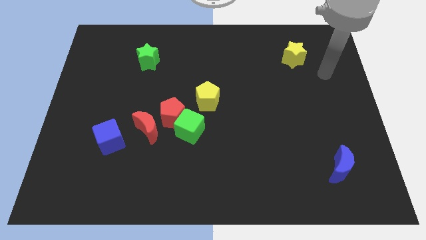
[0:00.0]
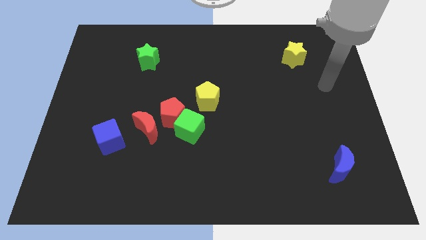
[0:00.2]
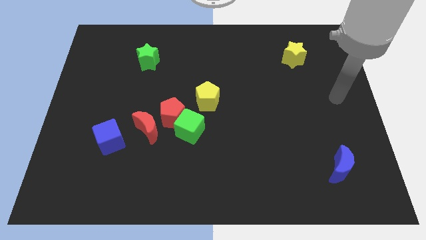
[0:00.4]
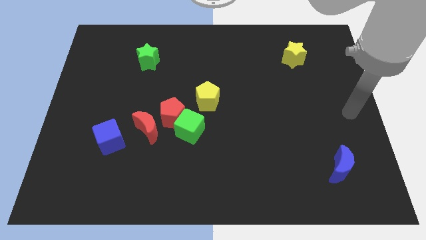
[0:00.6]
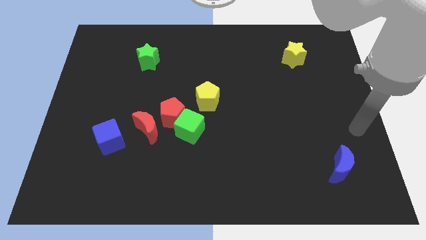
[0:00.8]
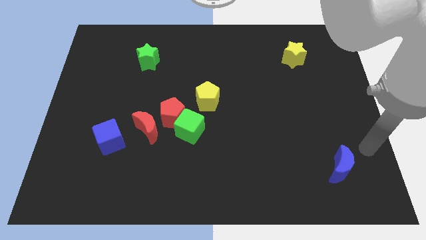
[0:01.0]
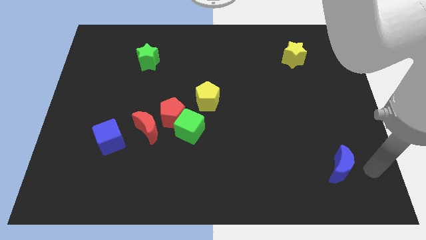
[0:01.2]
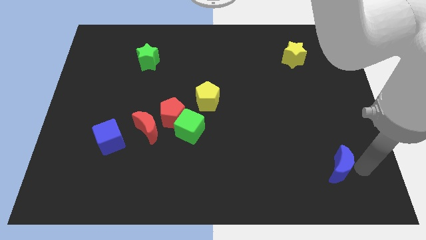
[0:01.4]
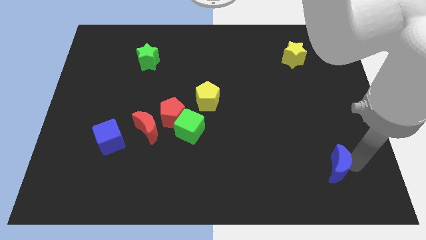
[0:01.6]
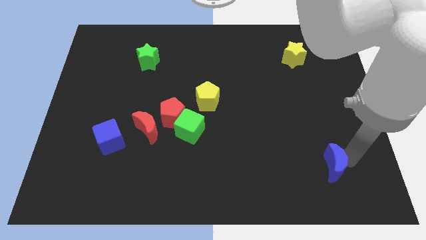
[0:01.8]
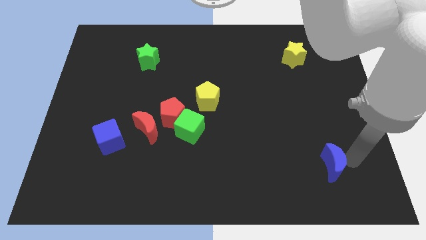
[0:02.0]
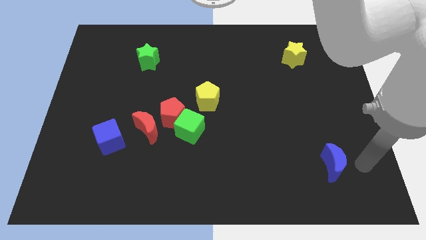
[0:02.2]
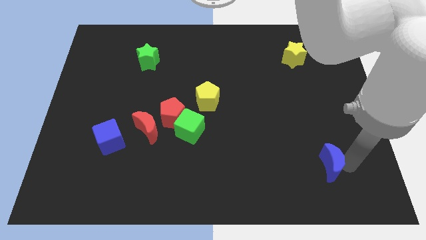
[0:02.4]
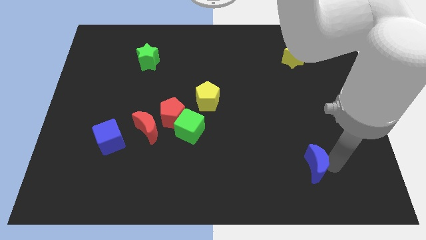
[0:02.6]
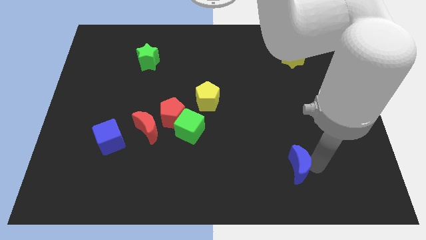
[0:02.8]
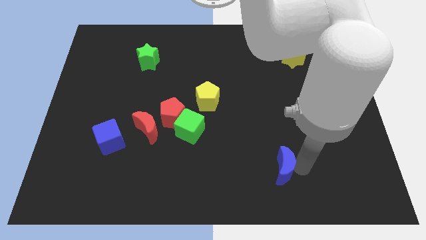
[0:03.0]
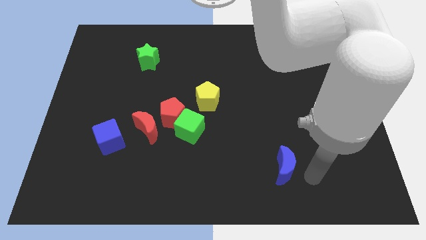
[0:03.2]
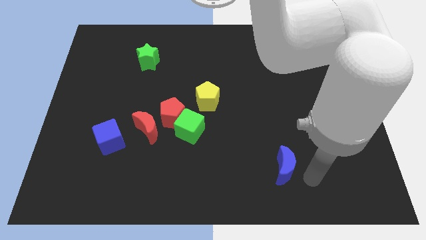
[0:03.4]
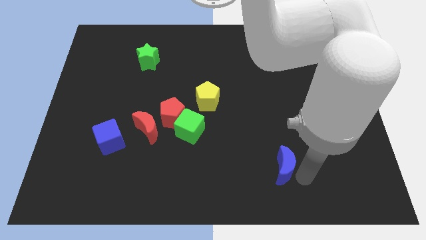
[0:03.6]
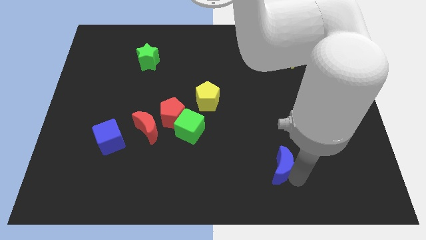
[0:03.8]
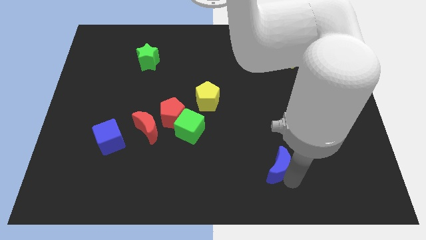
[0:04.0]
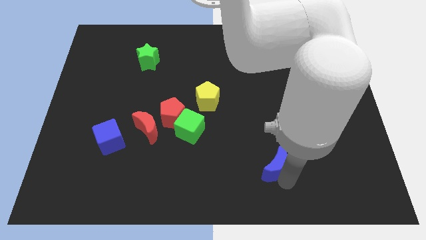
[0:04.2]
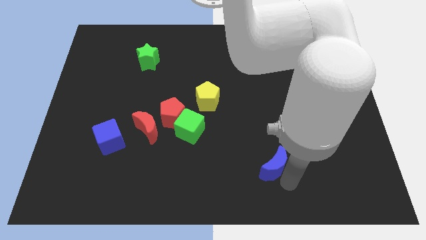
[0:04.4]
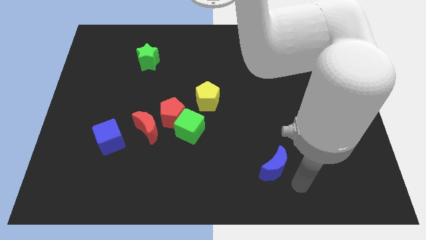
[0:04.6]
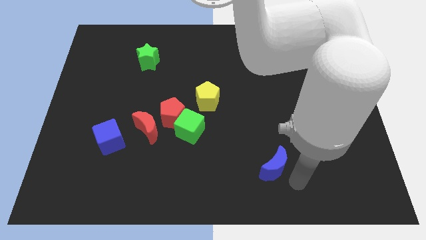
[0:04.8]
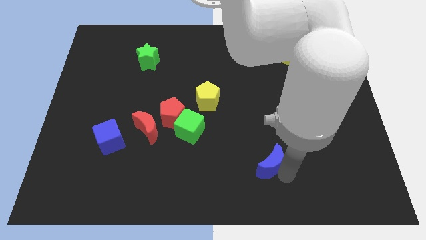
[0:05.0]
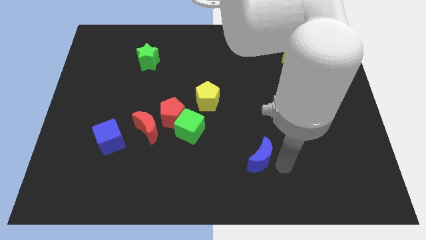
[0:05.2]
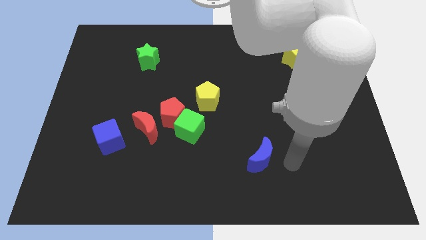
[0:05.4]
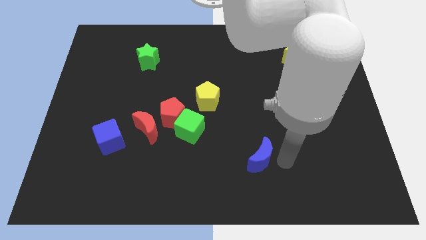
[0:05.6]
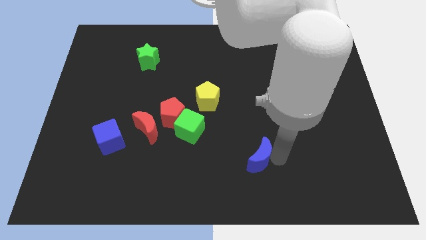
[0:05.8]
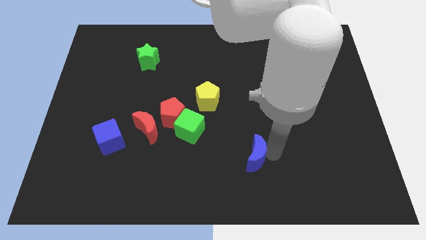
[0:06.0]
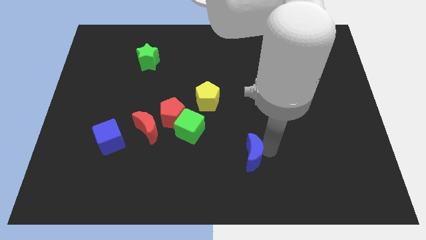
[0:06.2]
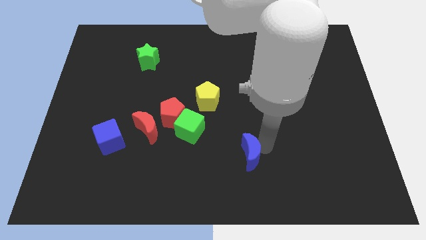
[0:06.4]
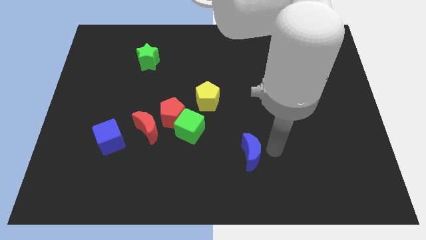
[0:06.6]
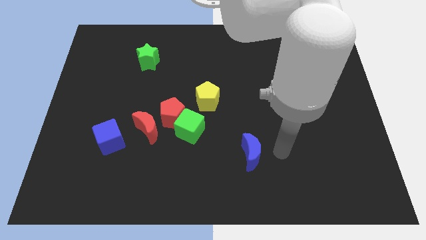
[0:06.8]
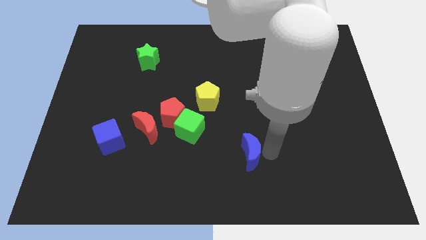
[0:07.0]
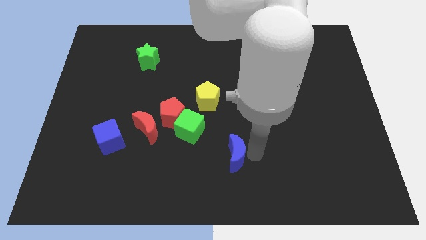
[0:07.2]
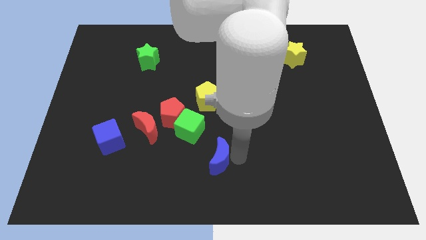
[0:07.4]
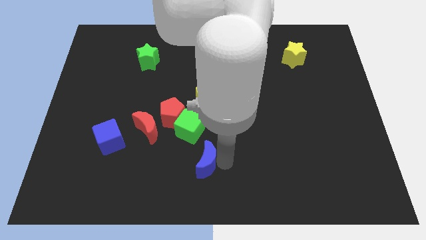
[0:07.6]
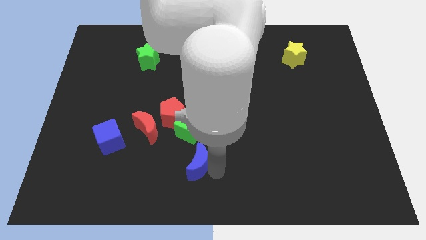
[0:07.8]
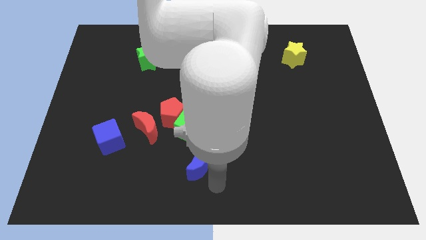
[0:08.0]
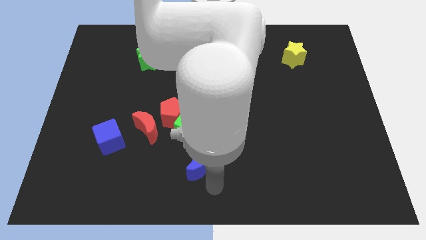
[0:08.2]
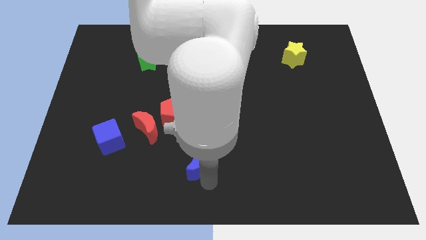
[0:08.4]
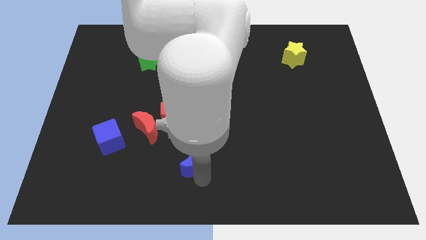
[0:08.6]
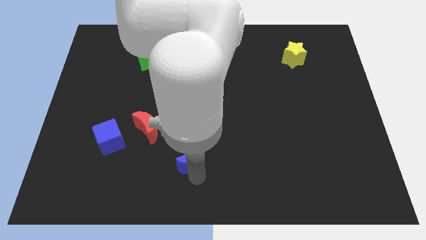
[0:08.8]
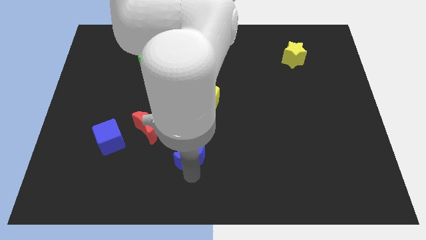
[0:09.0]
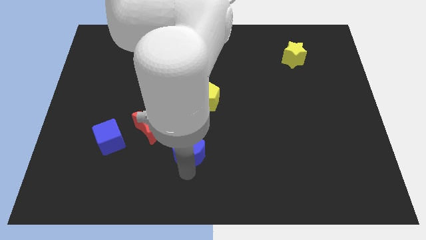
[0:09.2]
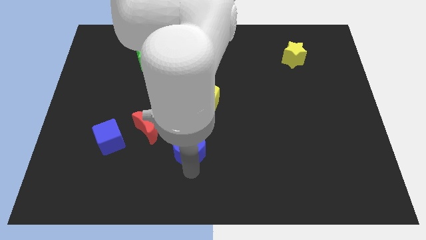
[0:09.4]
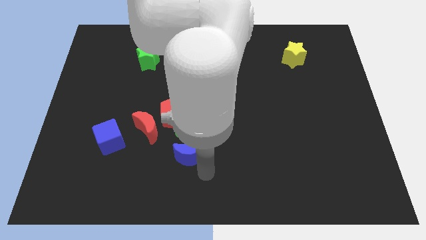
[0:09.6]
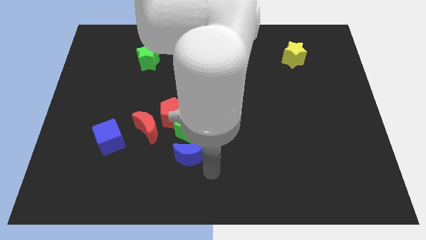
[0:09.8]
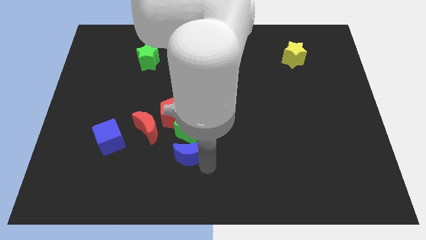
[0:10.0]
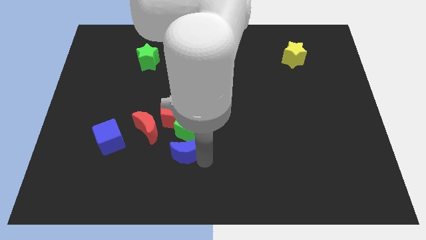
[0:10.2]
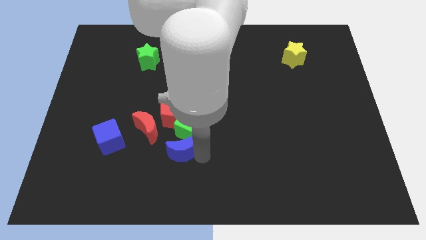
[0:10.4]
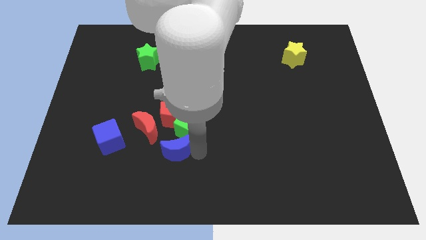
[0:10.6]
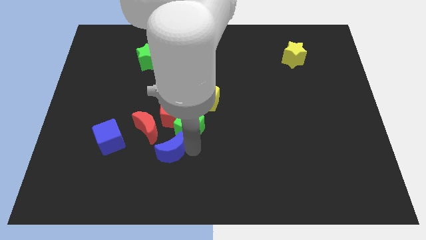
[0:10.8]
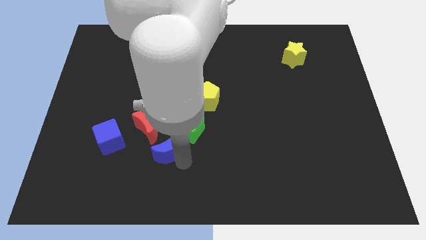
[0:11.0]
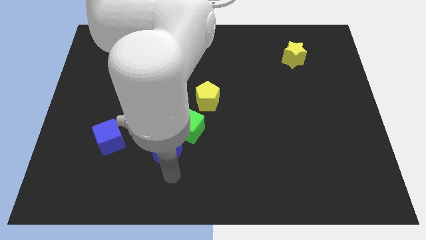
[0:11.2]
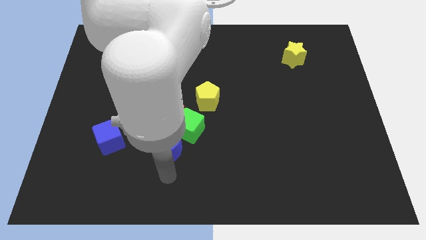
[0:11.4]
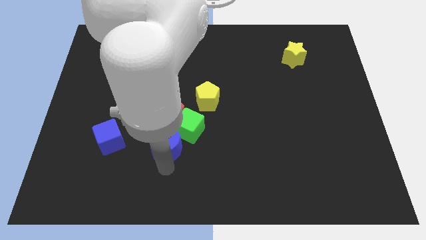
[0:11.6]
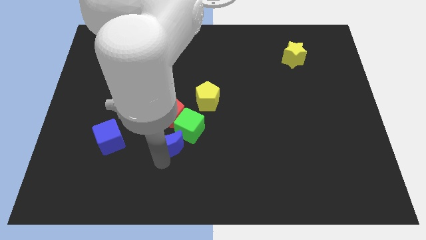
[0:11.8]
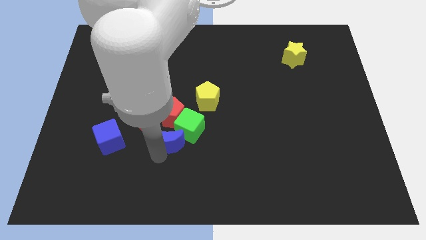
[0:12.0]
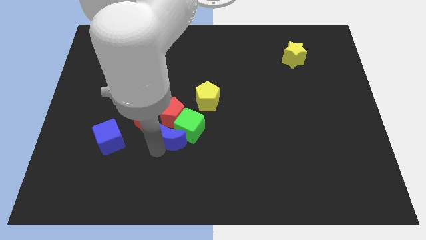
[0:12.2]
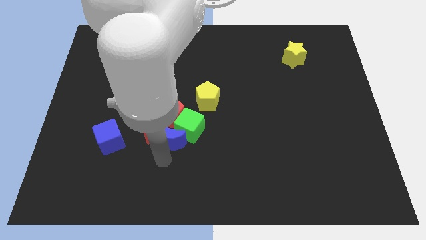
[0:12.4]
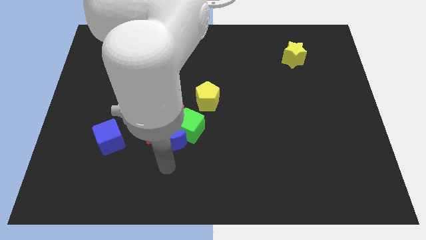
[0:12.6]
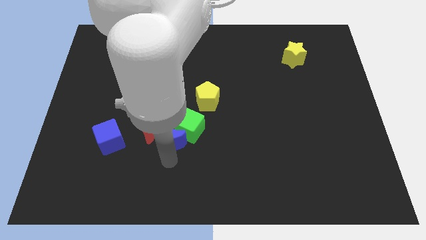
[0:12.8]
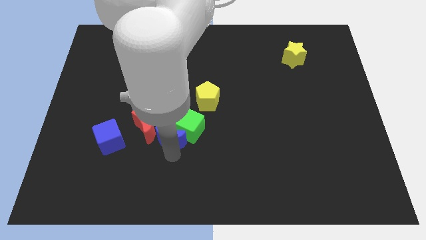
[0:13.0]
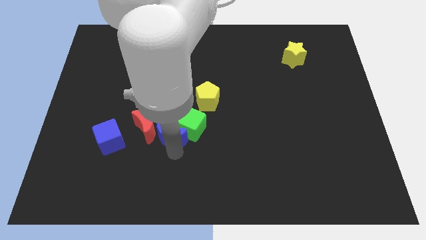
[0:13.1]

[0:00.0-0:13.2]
move the blue moon towards the red pentagon
